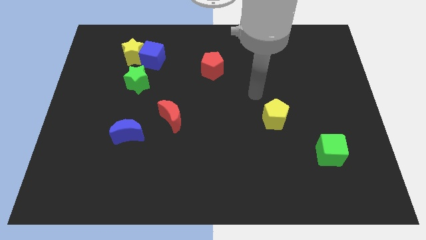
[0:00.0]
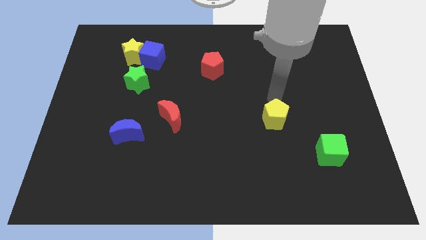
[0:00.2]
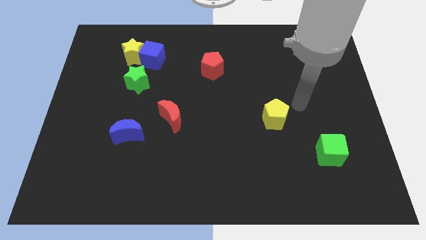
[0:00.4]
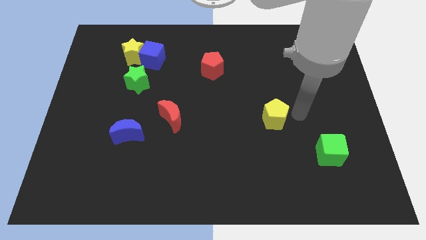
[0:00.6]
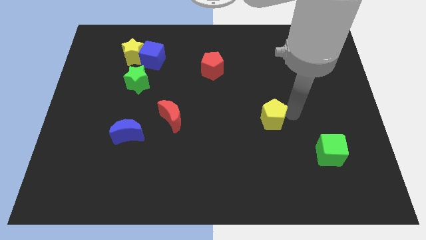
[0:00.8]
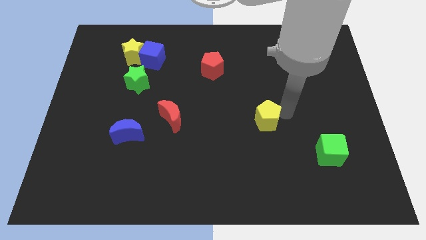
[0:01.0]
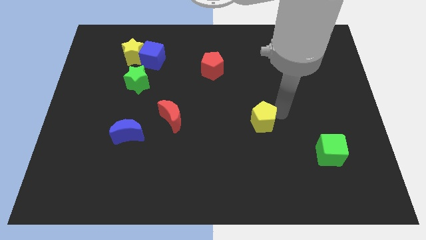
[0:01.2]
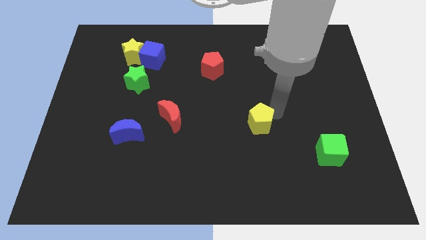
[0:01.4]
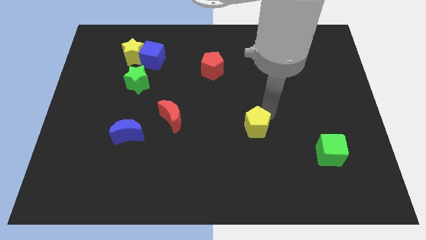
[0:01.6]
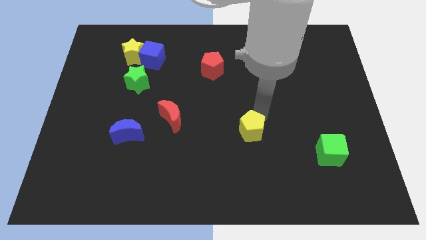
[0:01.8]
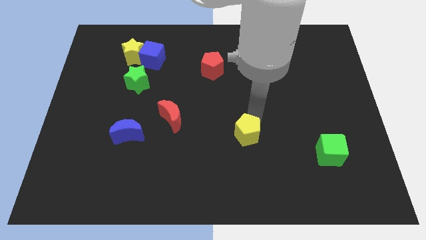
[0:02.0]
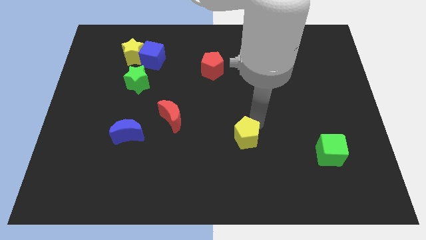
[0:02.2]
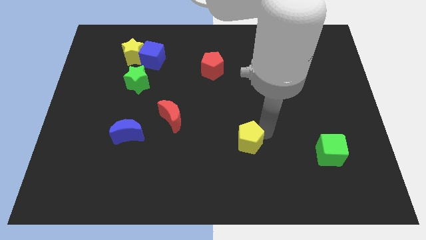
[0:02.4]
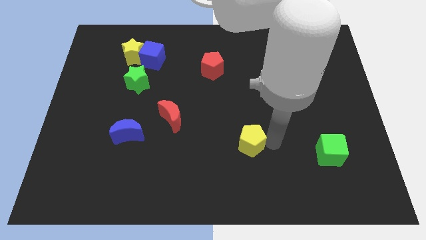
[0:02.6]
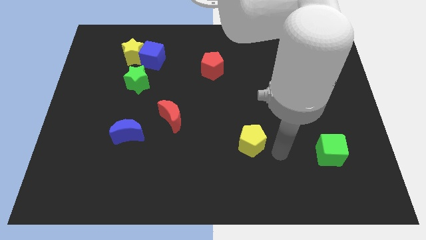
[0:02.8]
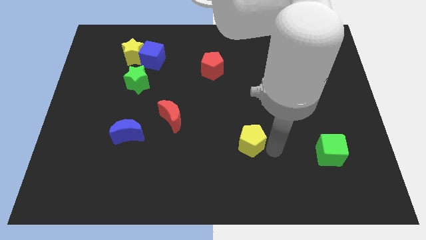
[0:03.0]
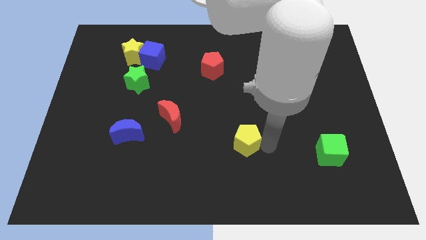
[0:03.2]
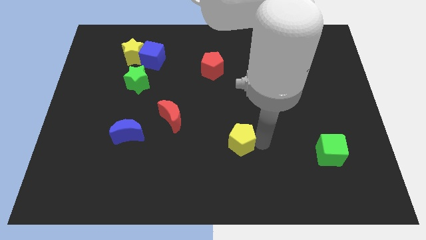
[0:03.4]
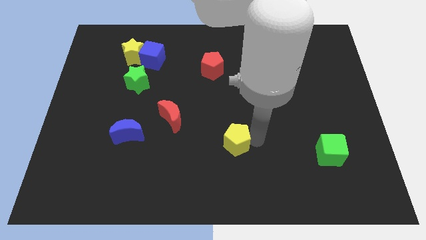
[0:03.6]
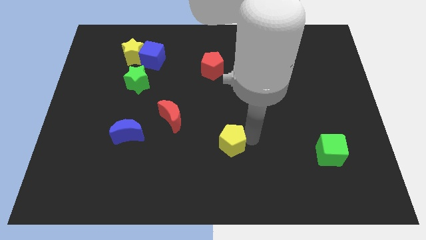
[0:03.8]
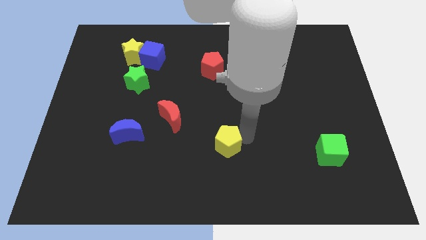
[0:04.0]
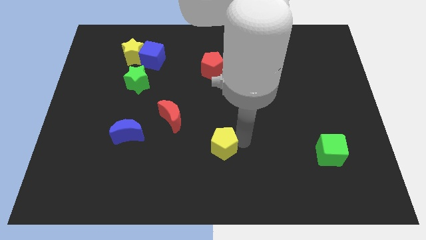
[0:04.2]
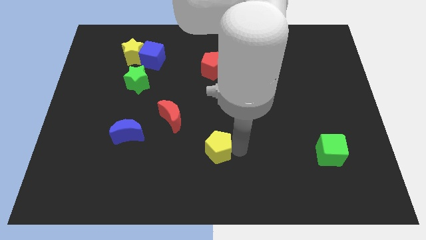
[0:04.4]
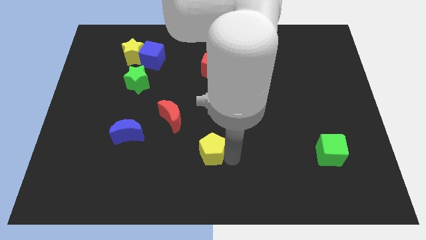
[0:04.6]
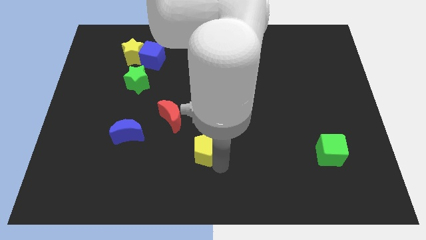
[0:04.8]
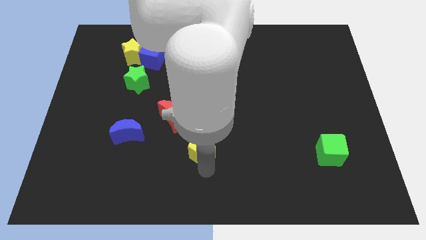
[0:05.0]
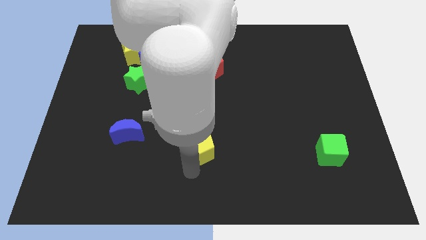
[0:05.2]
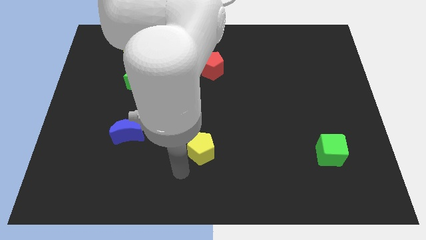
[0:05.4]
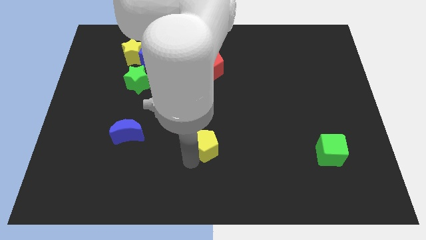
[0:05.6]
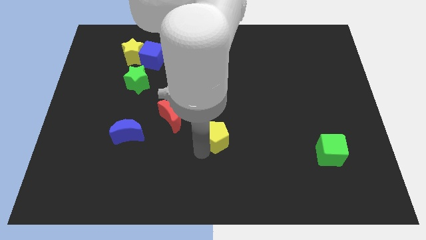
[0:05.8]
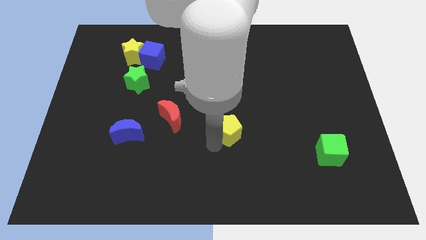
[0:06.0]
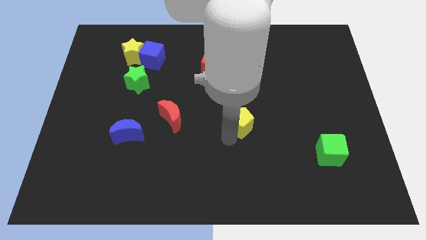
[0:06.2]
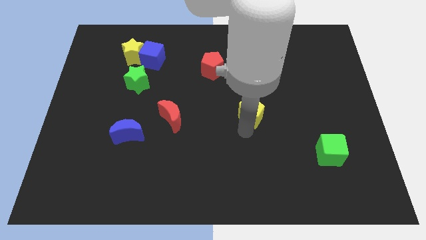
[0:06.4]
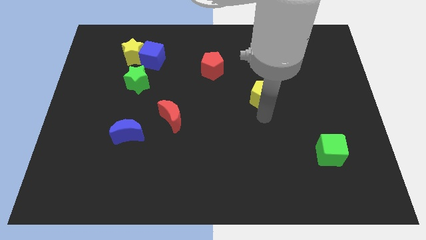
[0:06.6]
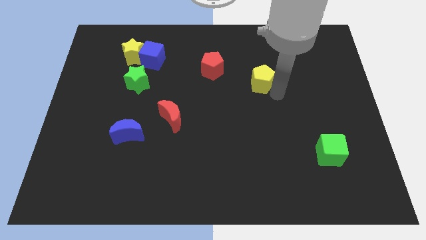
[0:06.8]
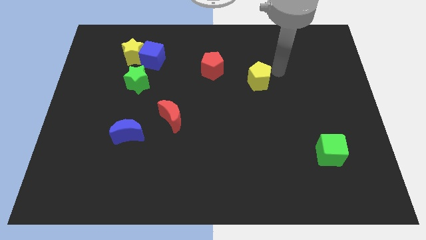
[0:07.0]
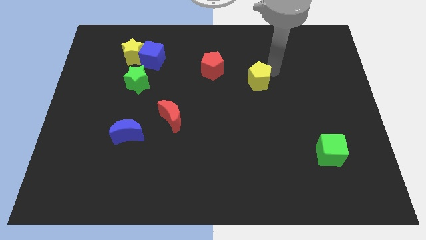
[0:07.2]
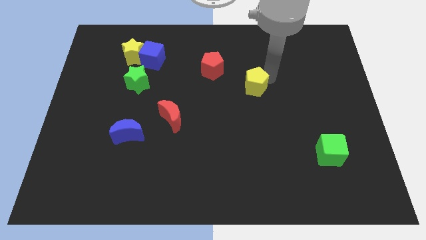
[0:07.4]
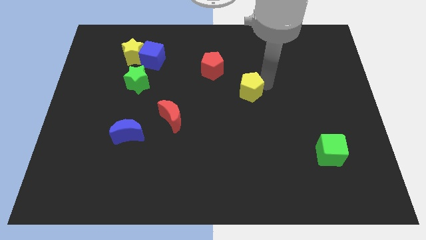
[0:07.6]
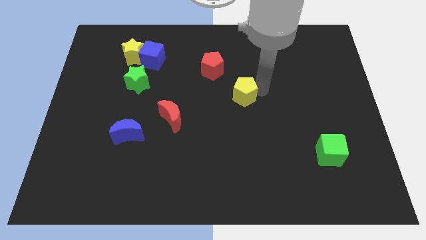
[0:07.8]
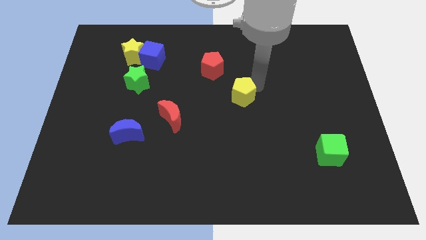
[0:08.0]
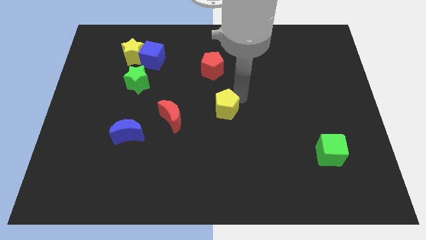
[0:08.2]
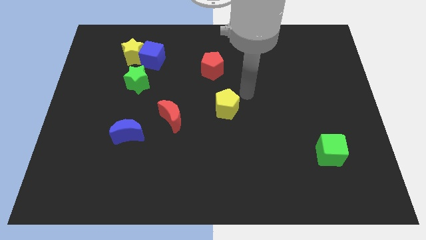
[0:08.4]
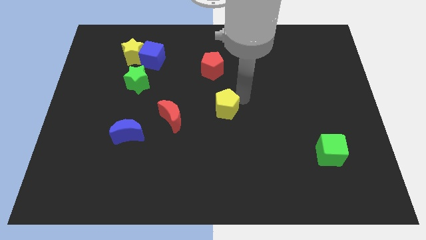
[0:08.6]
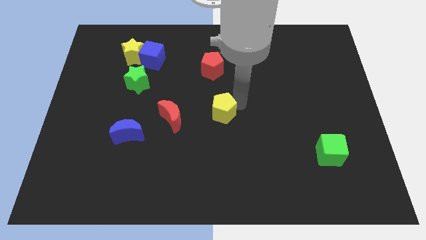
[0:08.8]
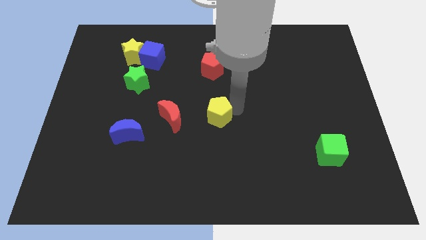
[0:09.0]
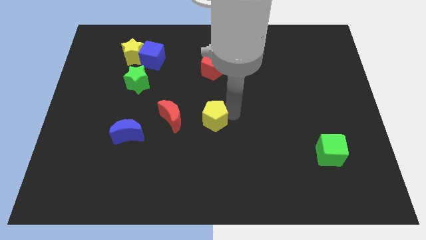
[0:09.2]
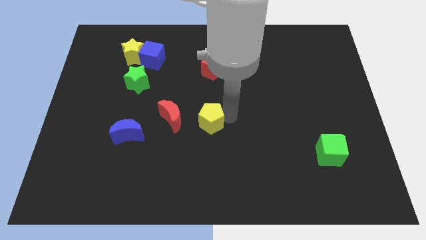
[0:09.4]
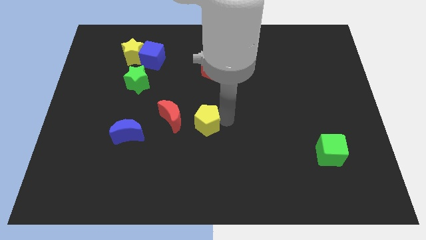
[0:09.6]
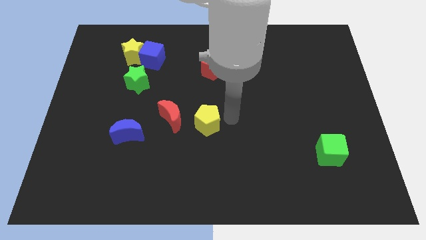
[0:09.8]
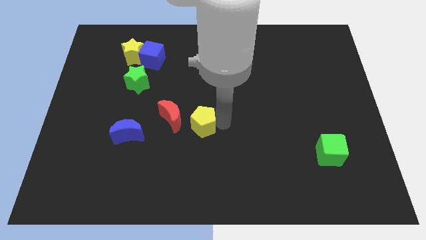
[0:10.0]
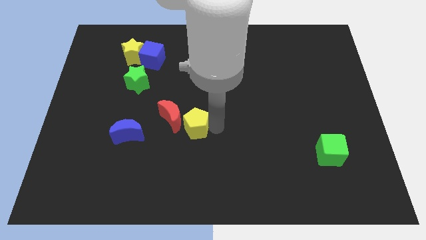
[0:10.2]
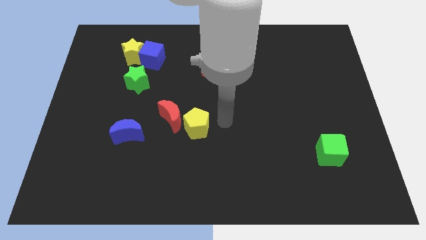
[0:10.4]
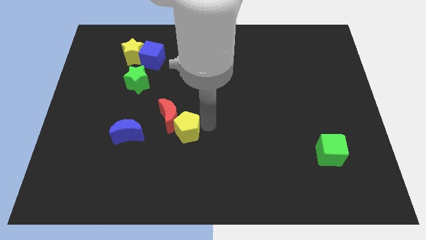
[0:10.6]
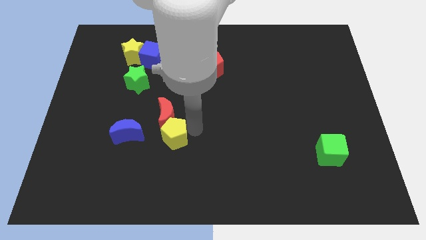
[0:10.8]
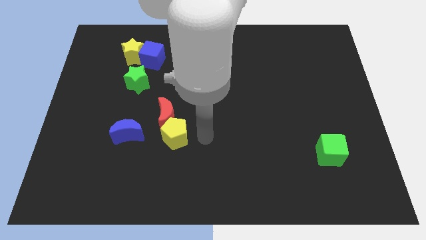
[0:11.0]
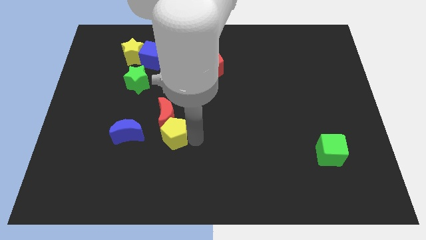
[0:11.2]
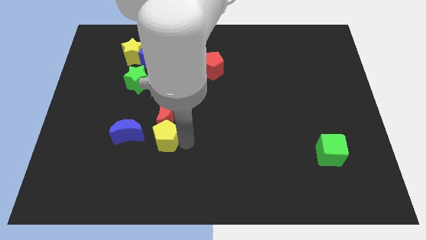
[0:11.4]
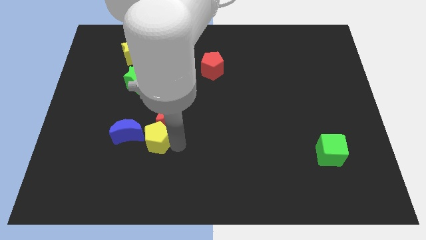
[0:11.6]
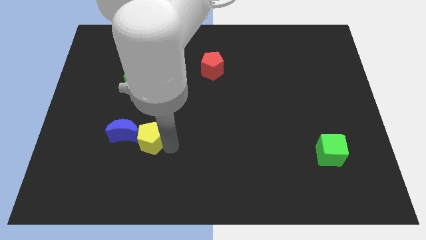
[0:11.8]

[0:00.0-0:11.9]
push the yellow pentagon next to the blue moon
